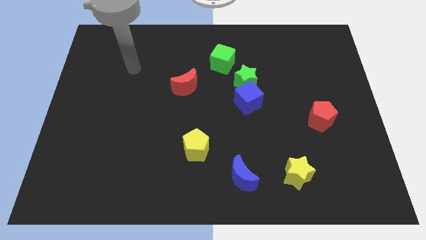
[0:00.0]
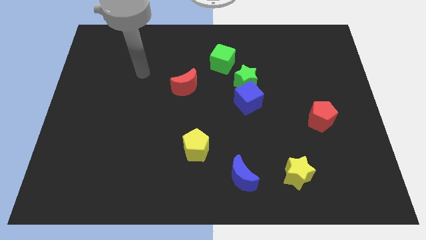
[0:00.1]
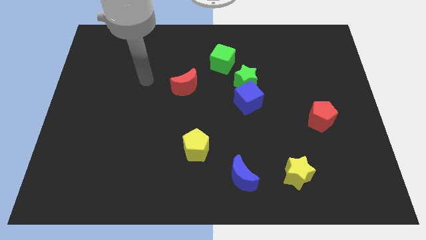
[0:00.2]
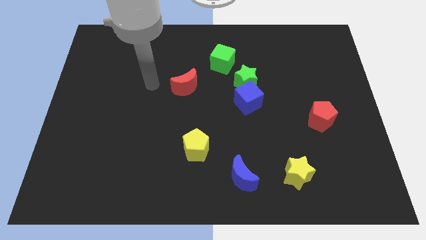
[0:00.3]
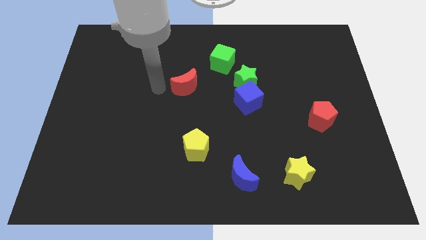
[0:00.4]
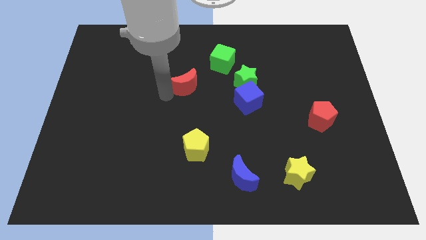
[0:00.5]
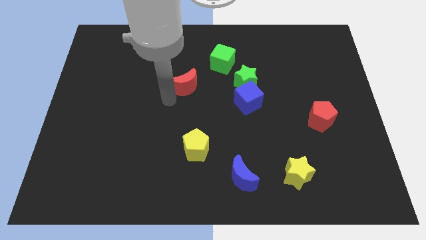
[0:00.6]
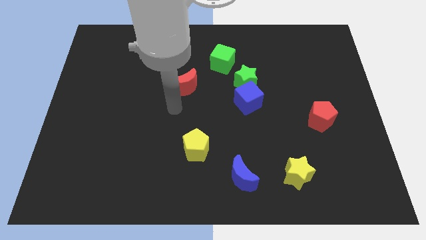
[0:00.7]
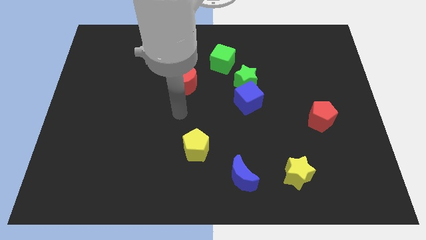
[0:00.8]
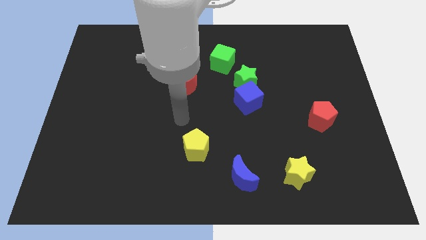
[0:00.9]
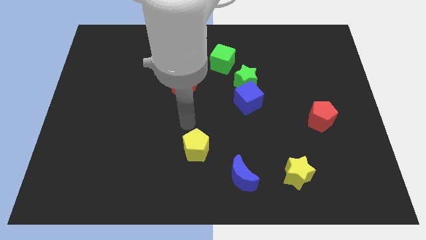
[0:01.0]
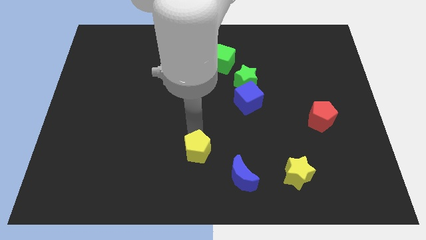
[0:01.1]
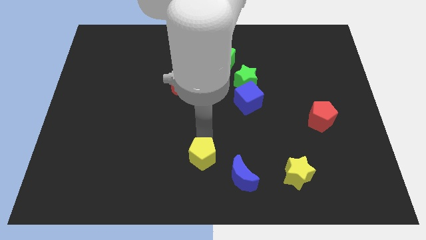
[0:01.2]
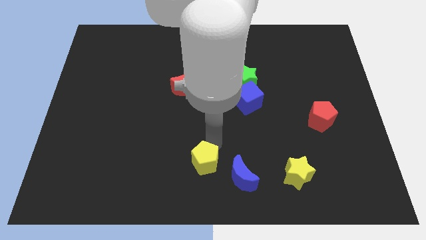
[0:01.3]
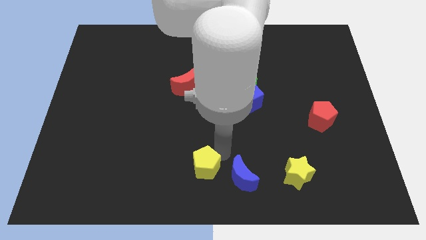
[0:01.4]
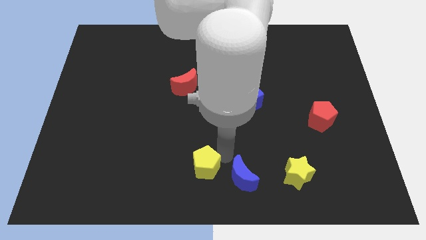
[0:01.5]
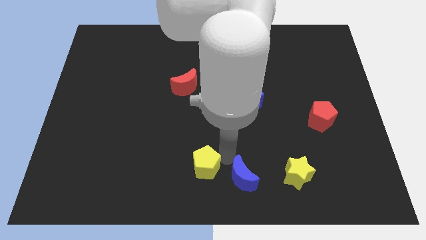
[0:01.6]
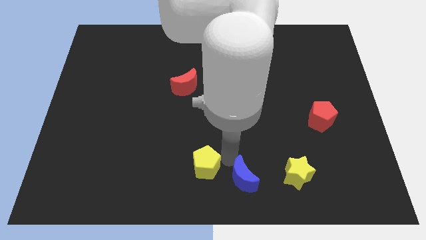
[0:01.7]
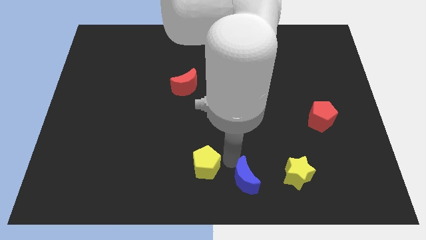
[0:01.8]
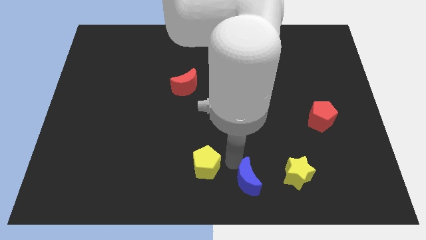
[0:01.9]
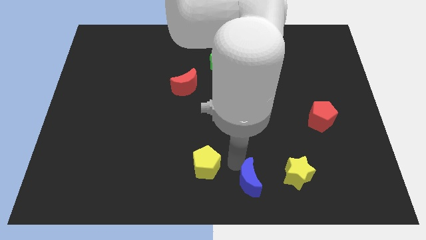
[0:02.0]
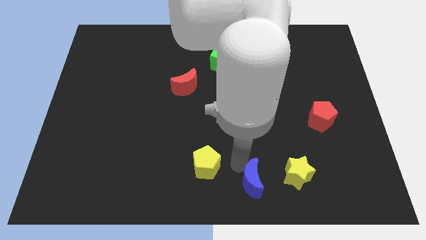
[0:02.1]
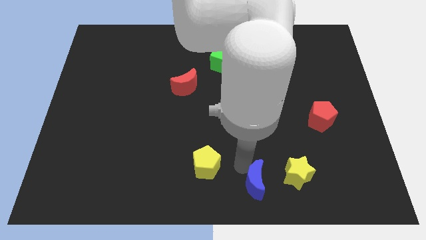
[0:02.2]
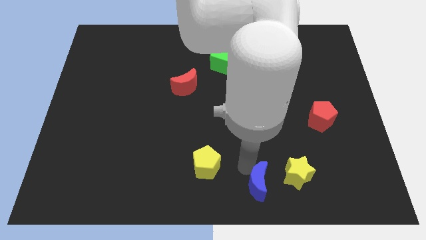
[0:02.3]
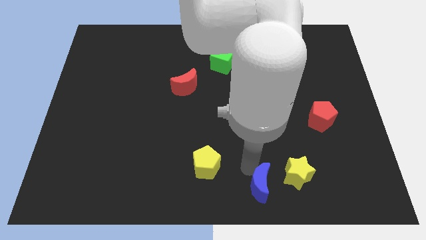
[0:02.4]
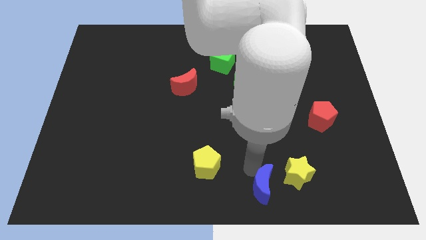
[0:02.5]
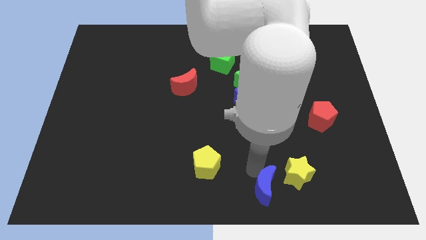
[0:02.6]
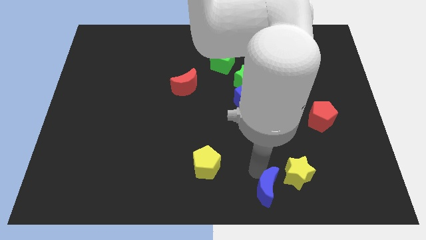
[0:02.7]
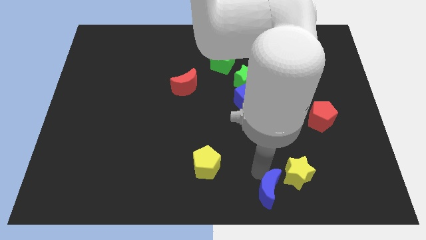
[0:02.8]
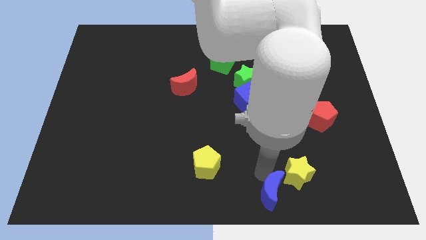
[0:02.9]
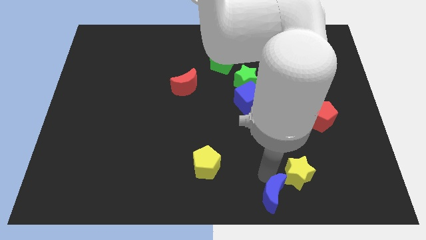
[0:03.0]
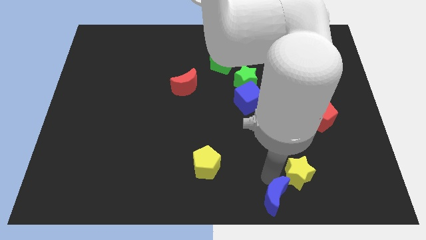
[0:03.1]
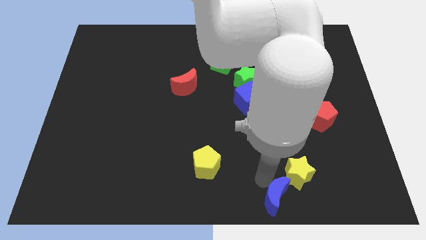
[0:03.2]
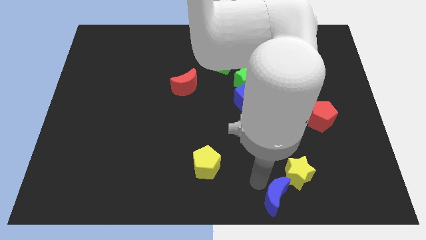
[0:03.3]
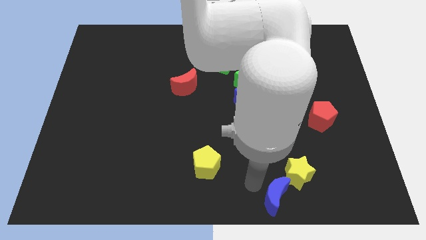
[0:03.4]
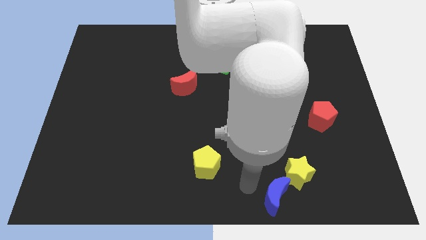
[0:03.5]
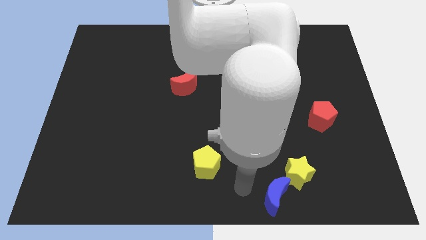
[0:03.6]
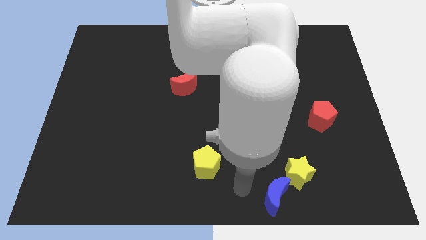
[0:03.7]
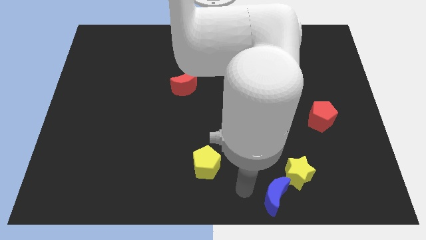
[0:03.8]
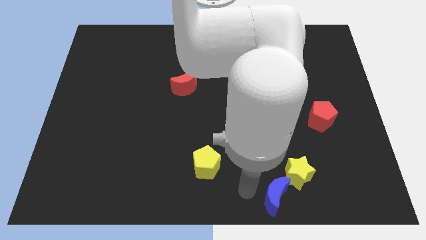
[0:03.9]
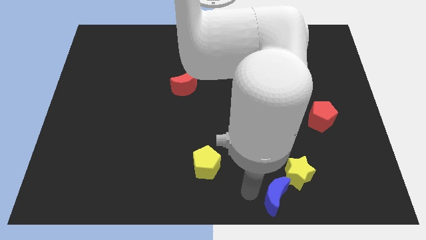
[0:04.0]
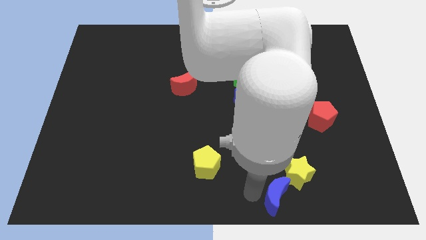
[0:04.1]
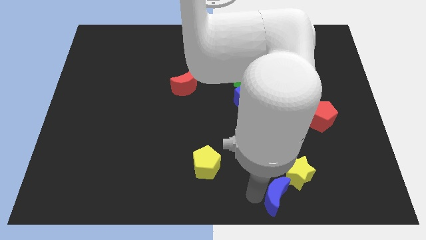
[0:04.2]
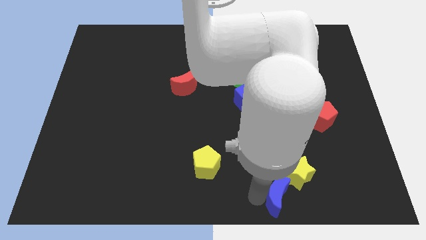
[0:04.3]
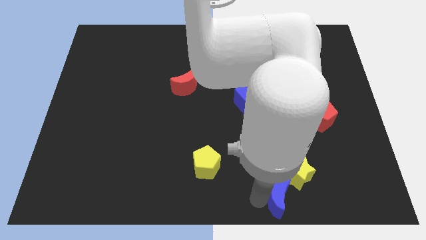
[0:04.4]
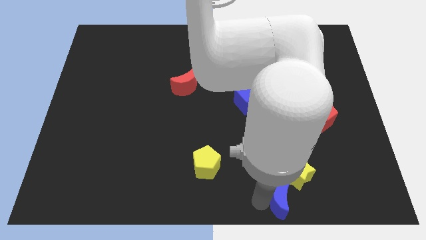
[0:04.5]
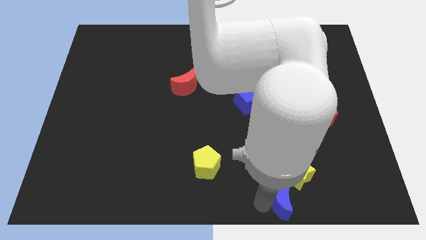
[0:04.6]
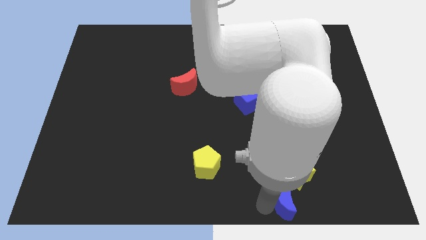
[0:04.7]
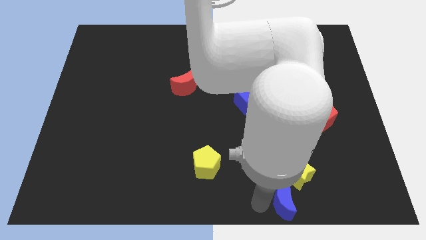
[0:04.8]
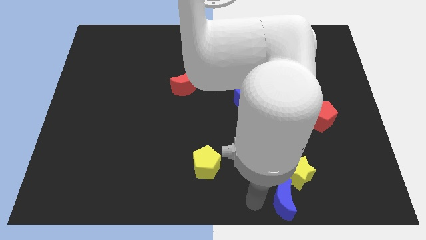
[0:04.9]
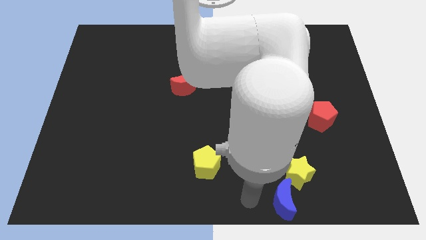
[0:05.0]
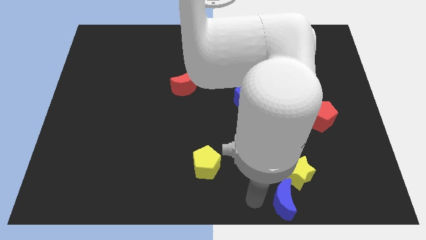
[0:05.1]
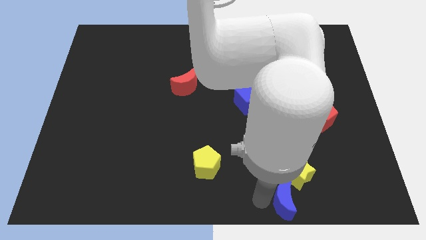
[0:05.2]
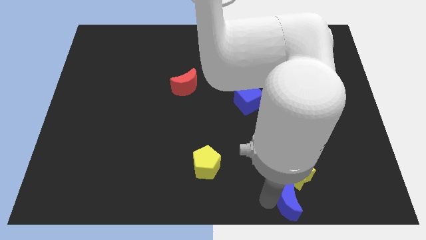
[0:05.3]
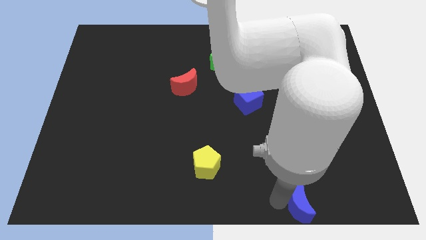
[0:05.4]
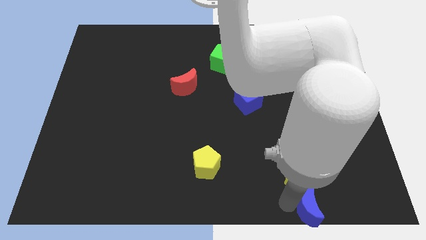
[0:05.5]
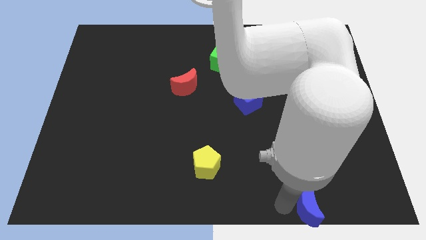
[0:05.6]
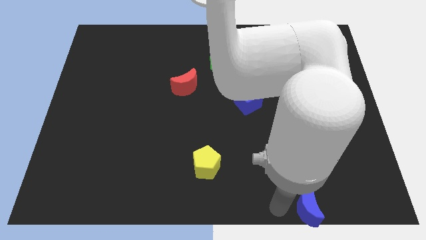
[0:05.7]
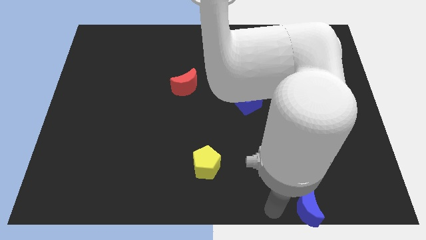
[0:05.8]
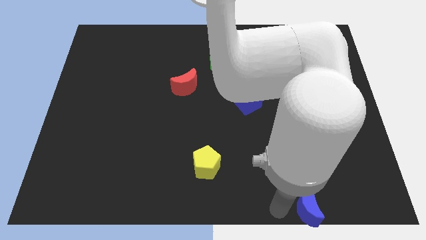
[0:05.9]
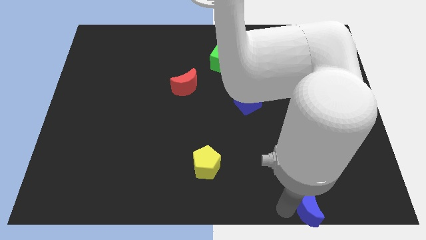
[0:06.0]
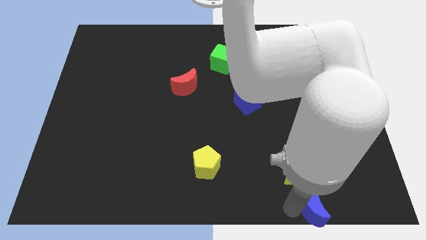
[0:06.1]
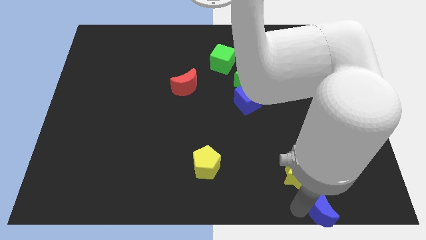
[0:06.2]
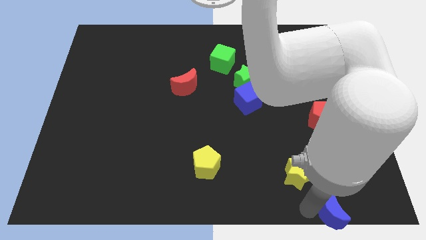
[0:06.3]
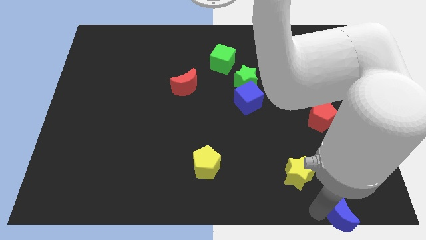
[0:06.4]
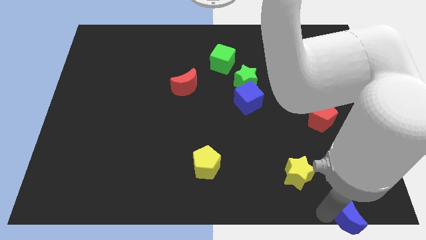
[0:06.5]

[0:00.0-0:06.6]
slide the blue moon to the bottom right
